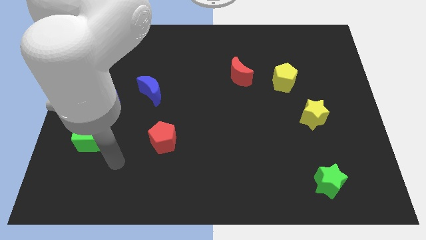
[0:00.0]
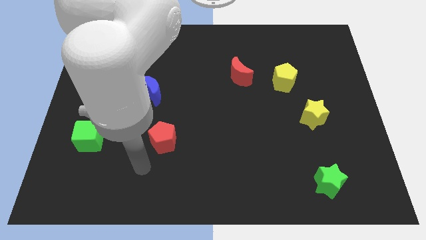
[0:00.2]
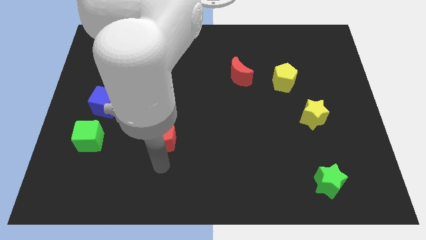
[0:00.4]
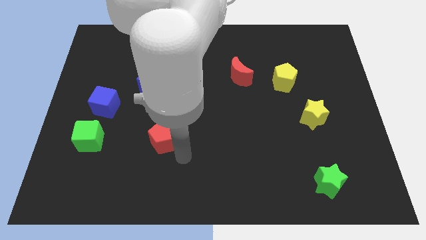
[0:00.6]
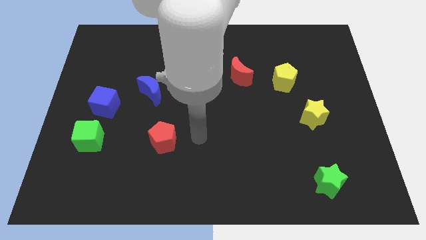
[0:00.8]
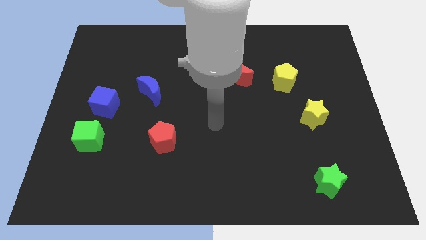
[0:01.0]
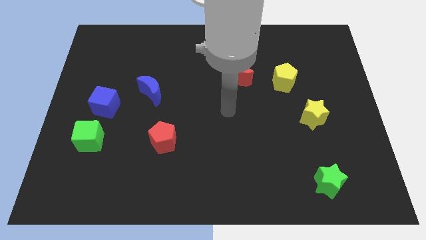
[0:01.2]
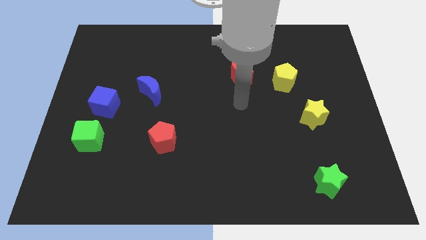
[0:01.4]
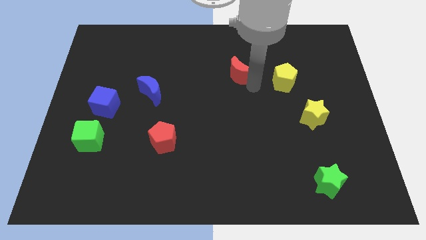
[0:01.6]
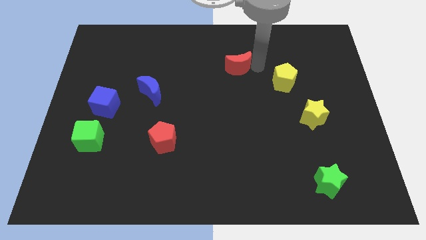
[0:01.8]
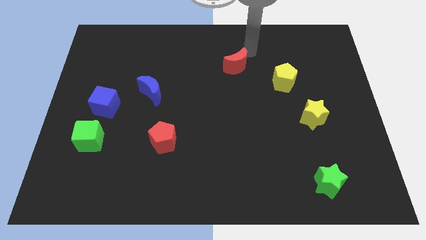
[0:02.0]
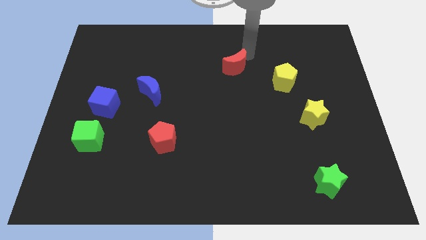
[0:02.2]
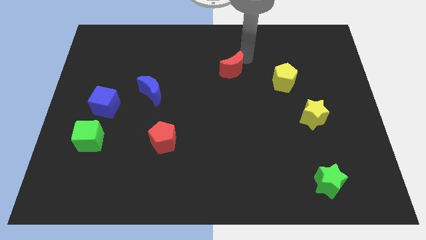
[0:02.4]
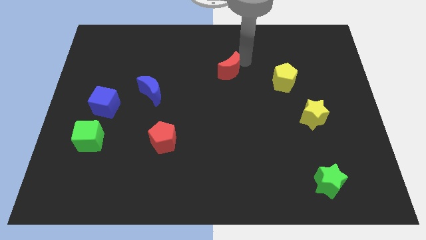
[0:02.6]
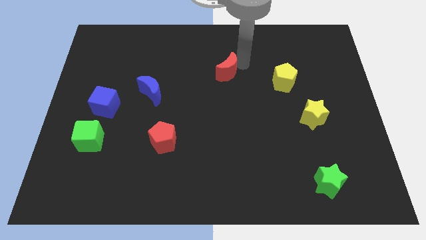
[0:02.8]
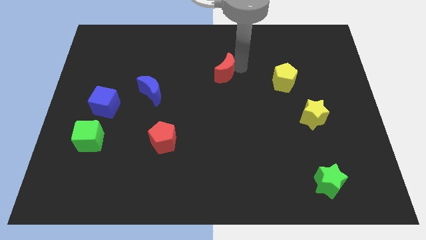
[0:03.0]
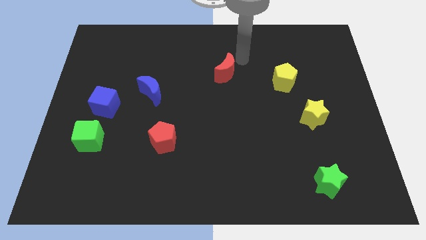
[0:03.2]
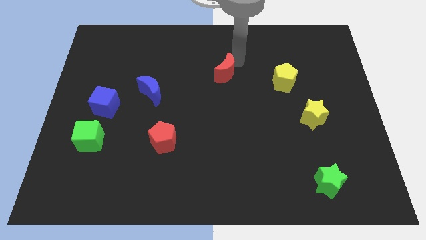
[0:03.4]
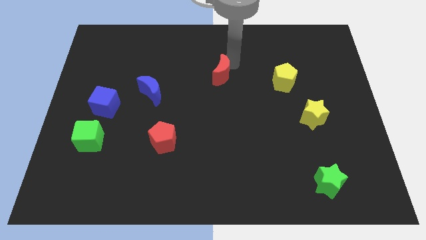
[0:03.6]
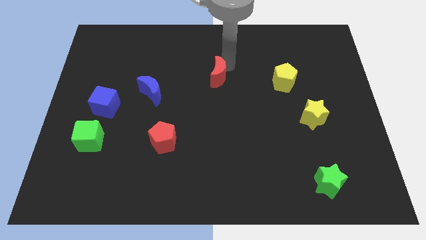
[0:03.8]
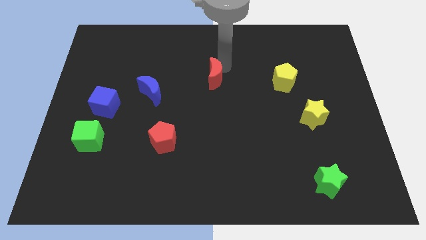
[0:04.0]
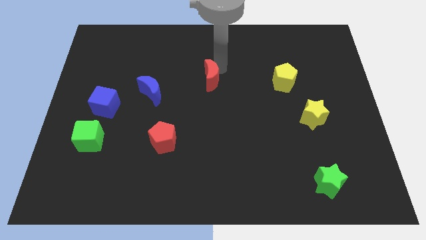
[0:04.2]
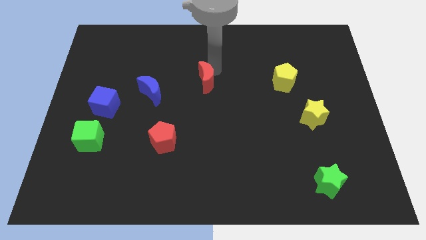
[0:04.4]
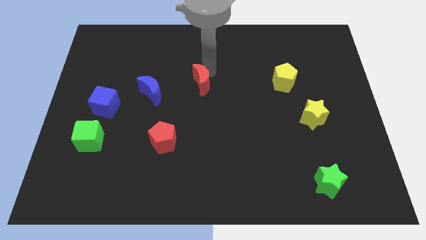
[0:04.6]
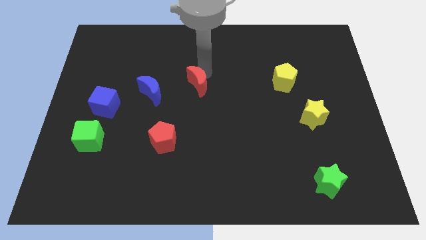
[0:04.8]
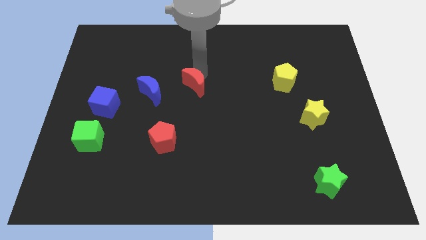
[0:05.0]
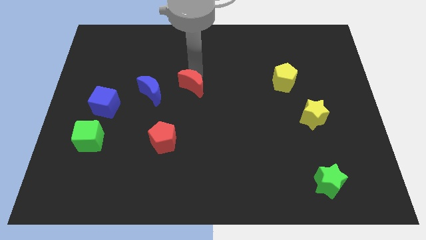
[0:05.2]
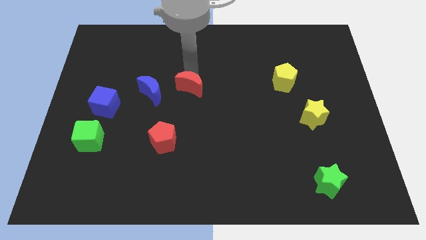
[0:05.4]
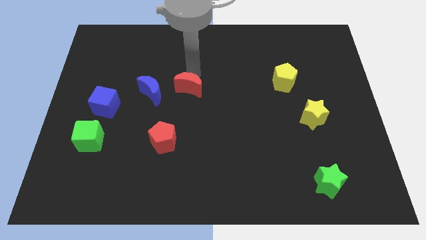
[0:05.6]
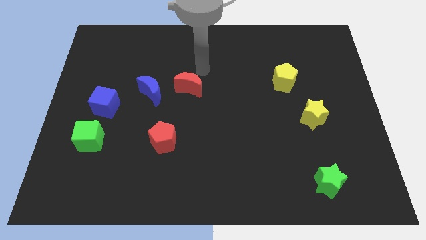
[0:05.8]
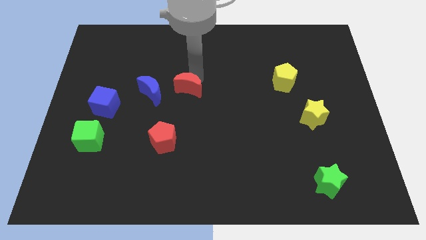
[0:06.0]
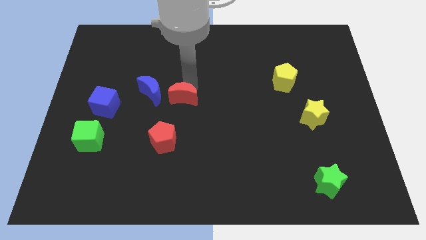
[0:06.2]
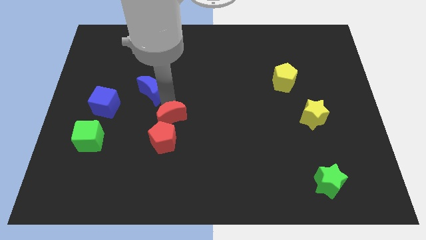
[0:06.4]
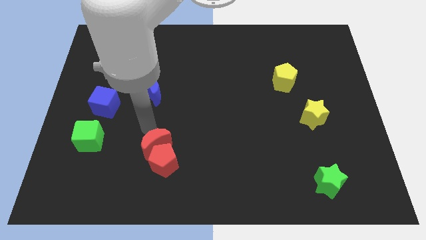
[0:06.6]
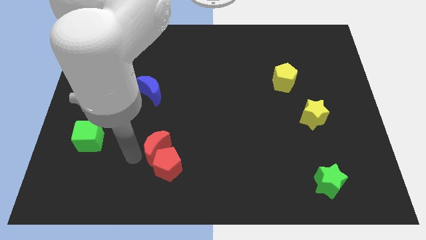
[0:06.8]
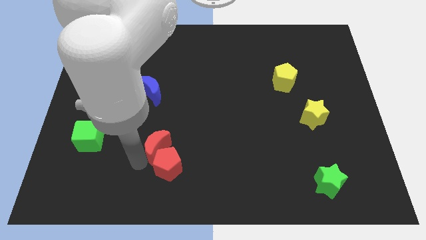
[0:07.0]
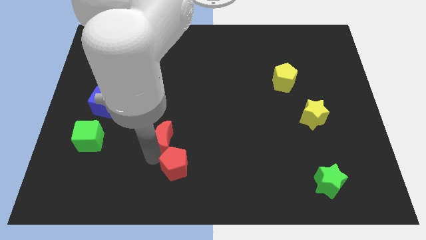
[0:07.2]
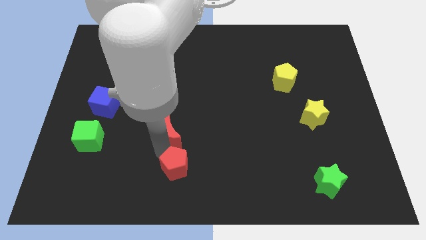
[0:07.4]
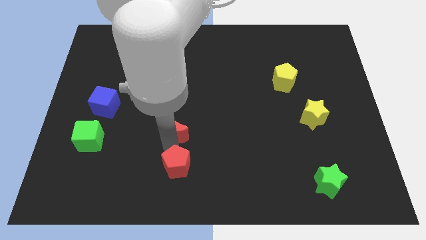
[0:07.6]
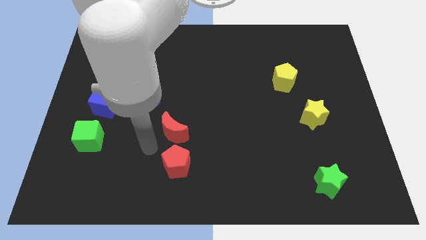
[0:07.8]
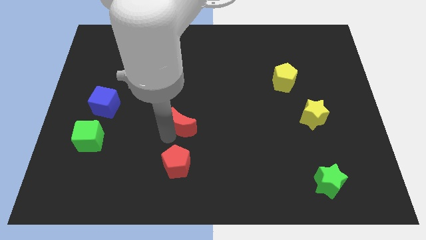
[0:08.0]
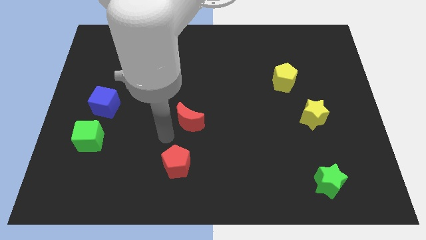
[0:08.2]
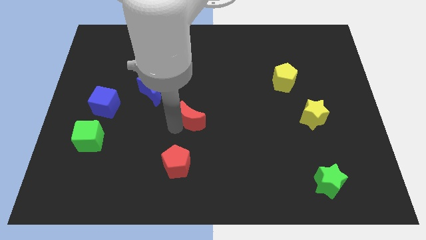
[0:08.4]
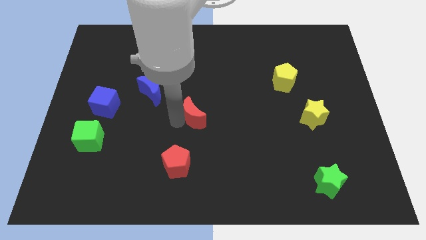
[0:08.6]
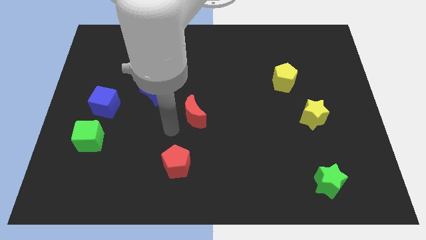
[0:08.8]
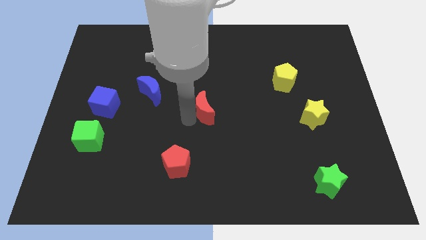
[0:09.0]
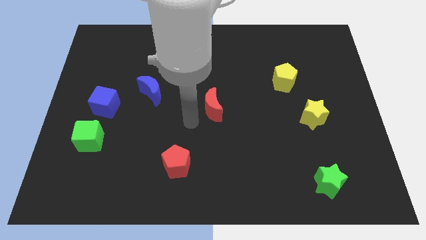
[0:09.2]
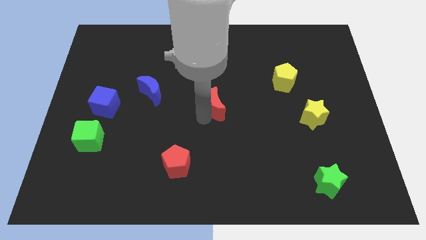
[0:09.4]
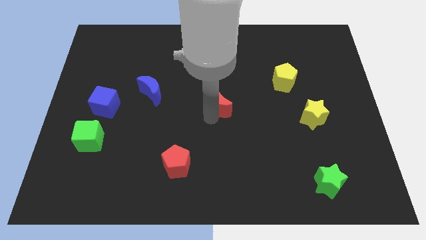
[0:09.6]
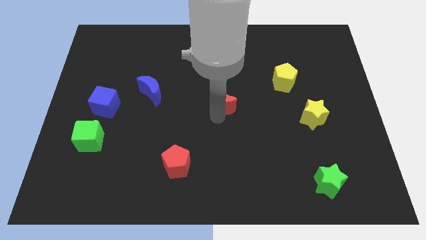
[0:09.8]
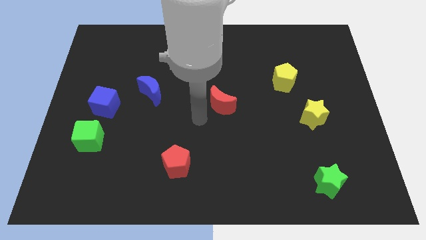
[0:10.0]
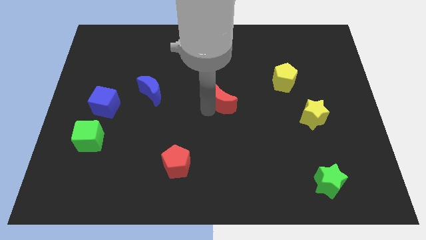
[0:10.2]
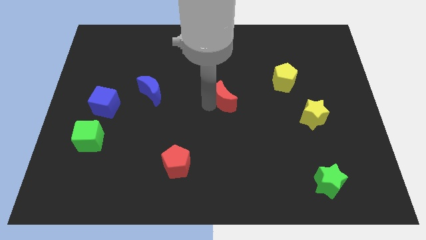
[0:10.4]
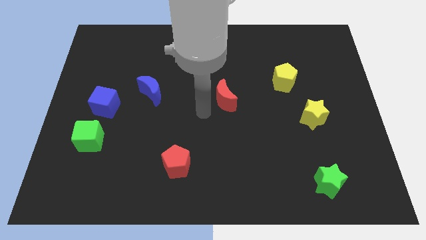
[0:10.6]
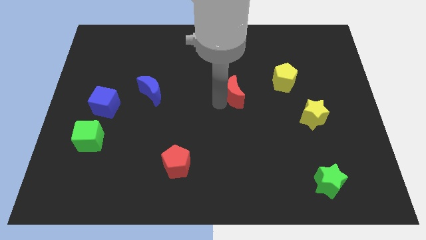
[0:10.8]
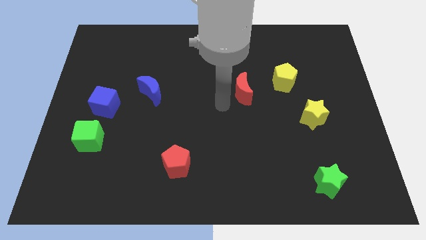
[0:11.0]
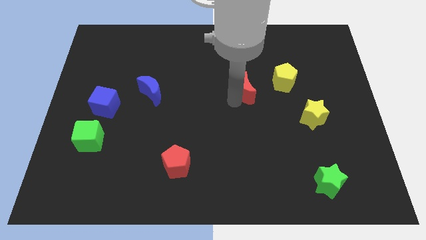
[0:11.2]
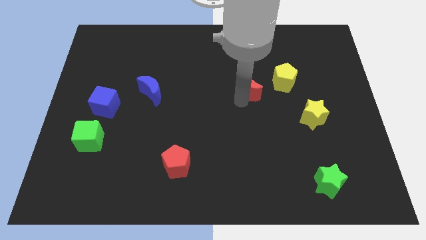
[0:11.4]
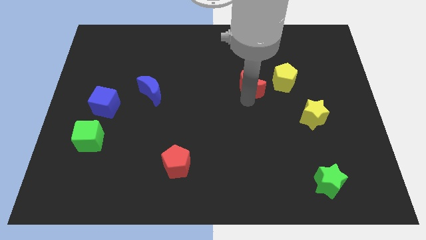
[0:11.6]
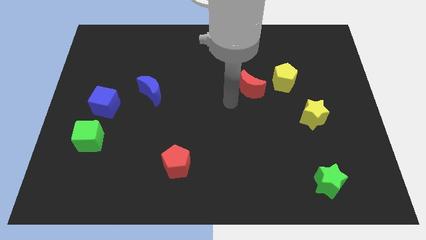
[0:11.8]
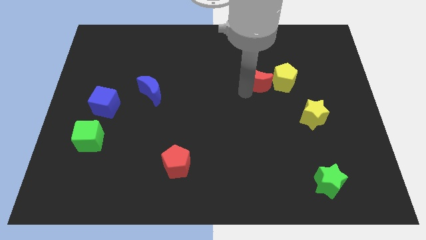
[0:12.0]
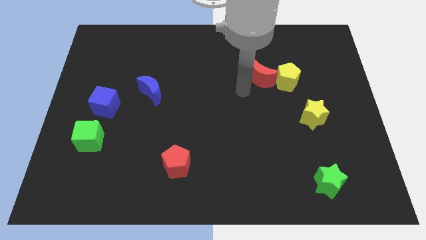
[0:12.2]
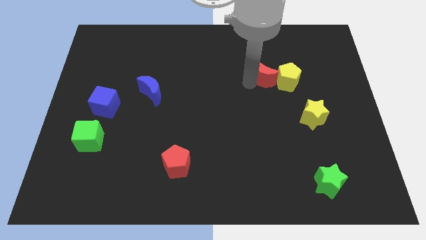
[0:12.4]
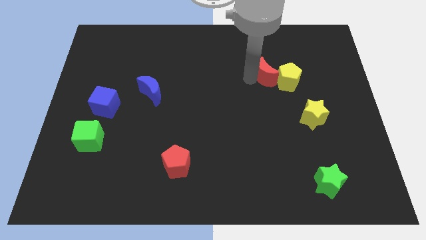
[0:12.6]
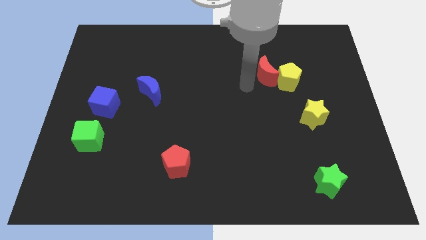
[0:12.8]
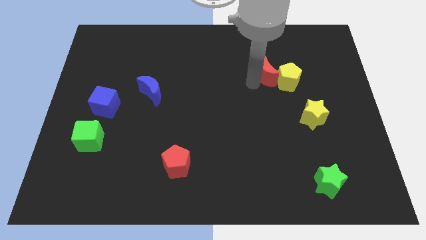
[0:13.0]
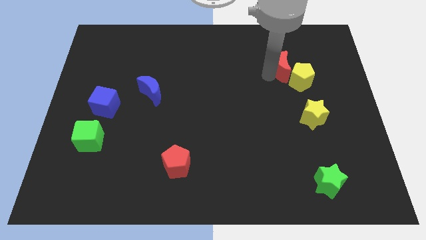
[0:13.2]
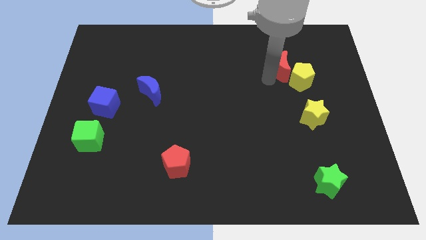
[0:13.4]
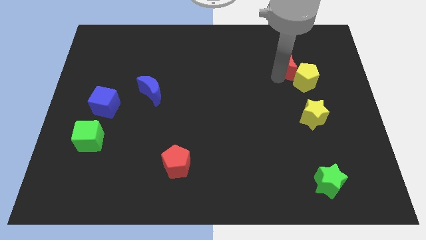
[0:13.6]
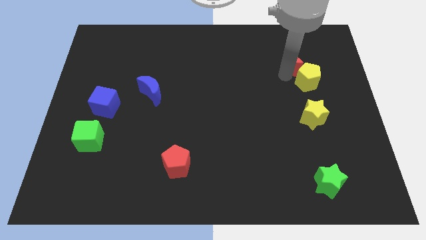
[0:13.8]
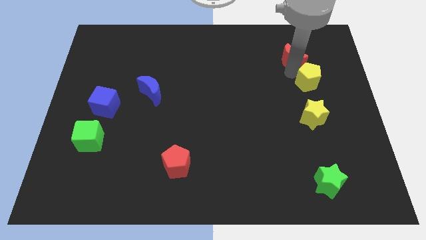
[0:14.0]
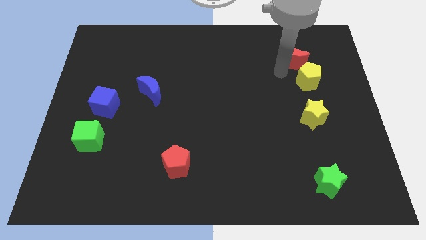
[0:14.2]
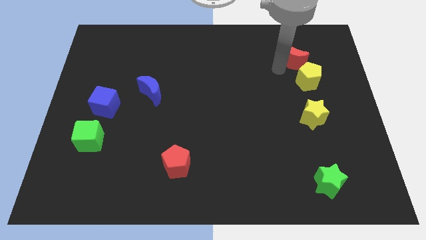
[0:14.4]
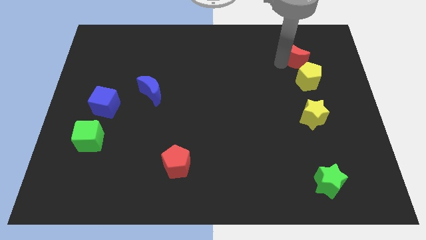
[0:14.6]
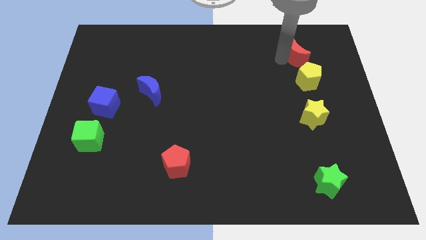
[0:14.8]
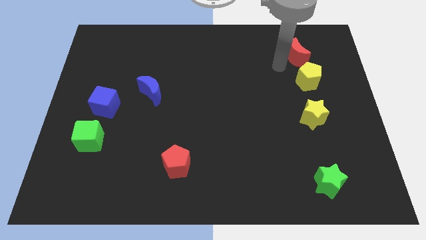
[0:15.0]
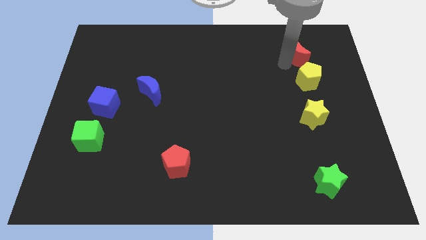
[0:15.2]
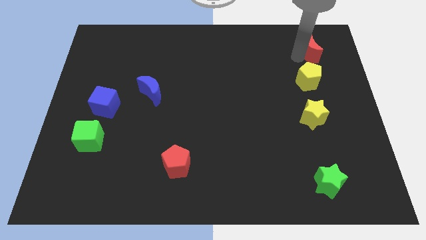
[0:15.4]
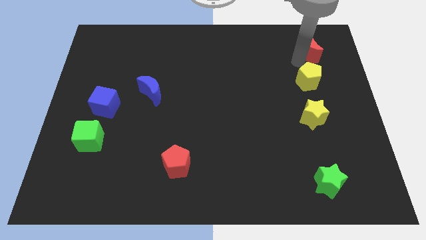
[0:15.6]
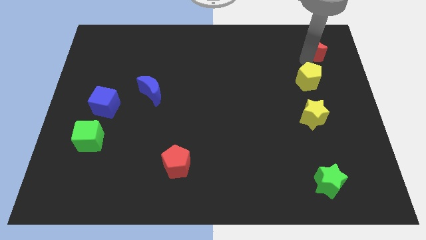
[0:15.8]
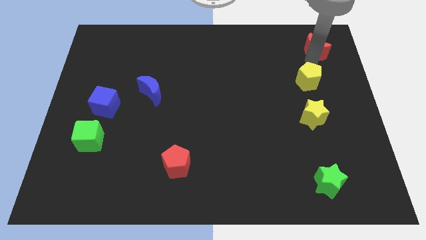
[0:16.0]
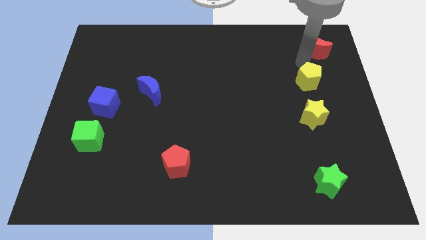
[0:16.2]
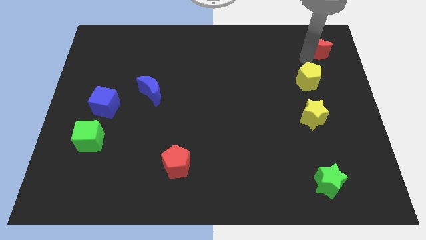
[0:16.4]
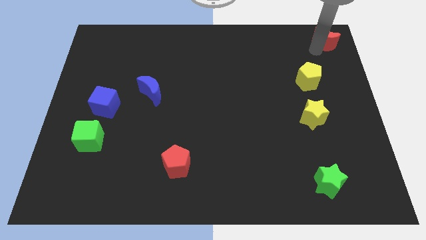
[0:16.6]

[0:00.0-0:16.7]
push the red moon to the top right
